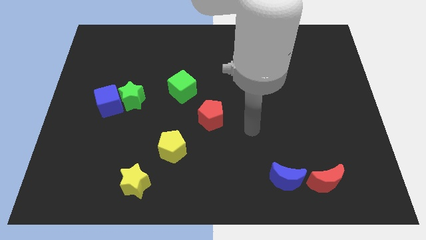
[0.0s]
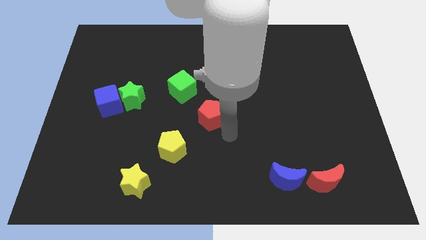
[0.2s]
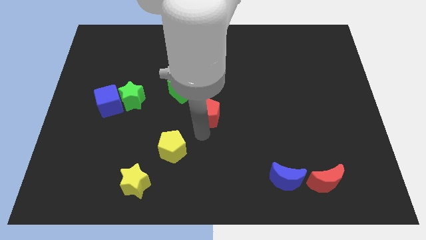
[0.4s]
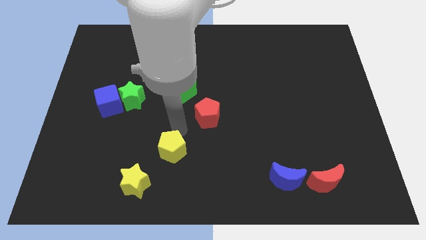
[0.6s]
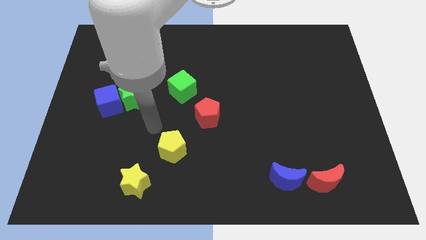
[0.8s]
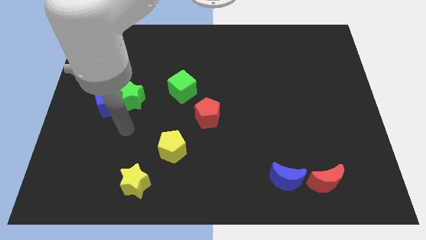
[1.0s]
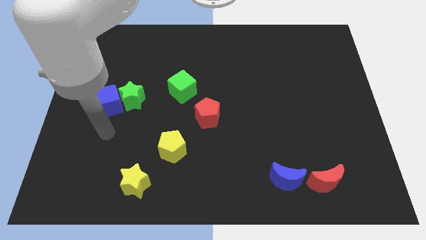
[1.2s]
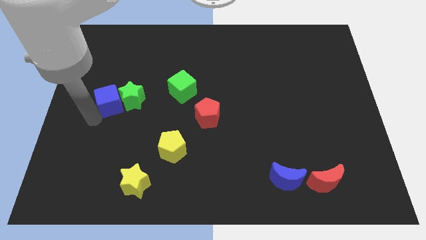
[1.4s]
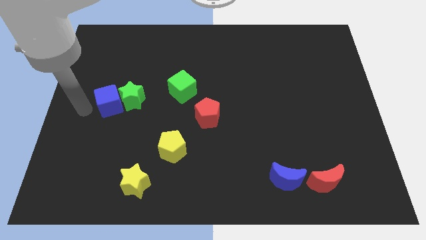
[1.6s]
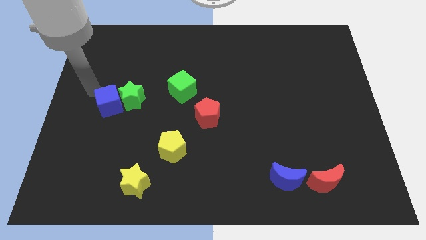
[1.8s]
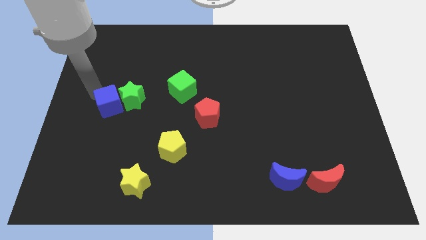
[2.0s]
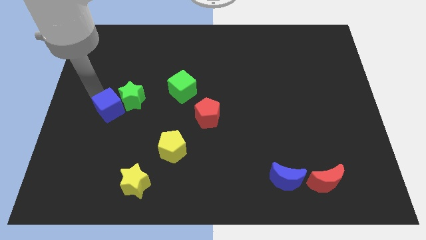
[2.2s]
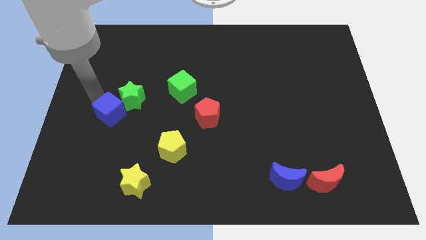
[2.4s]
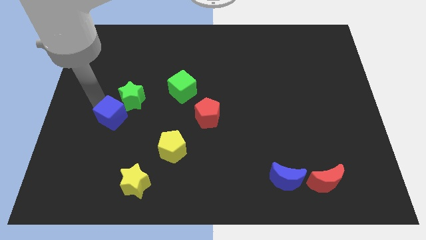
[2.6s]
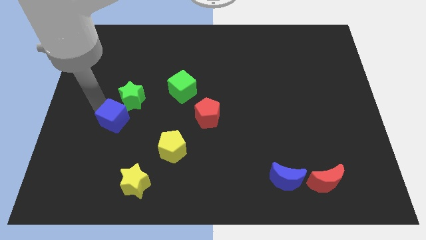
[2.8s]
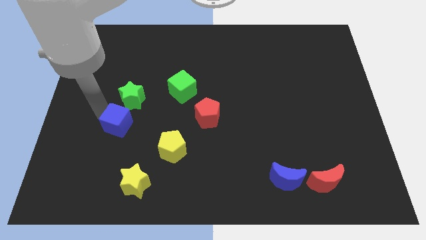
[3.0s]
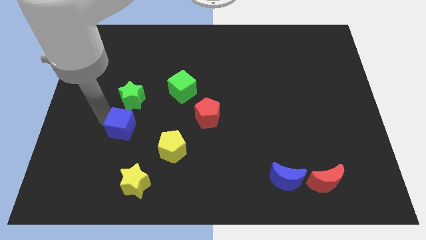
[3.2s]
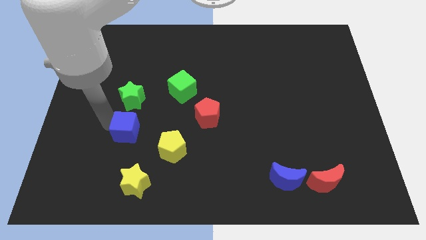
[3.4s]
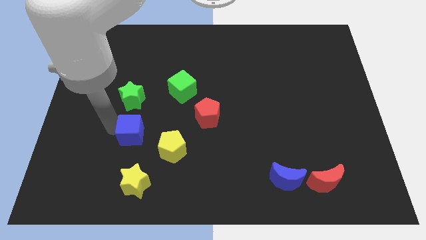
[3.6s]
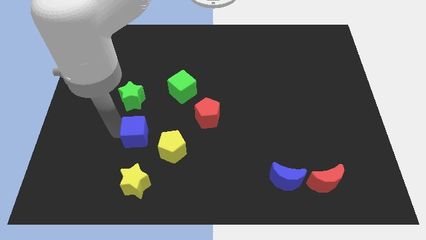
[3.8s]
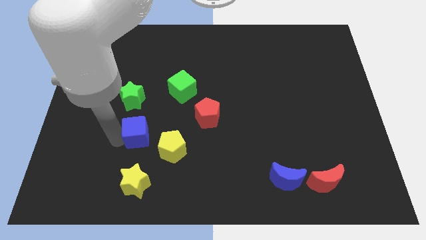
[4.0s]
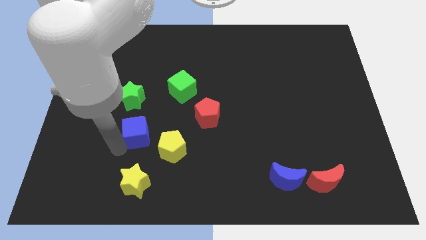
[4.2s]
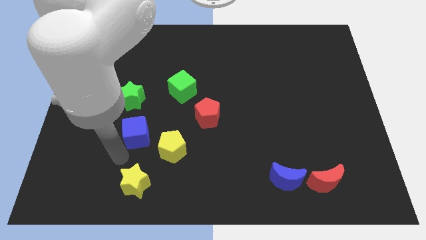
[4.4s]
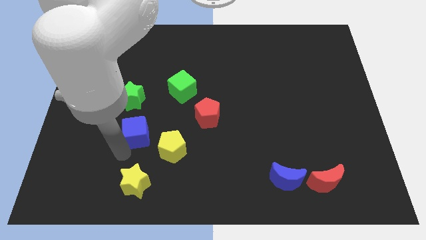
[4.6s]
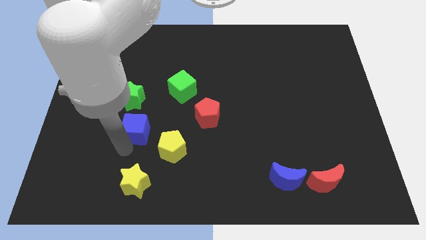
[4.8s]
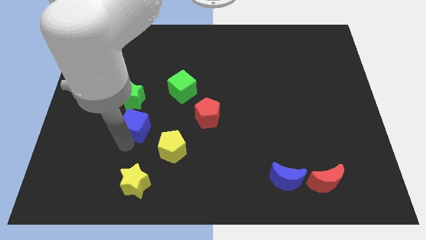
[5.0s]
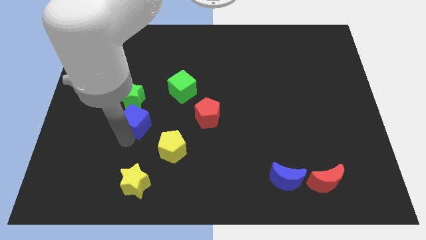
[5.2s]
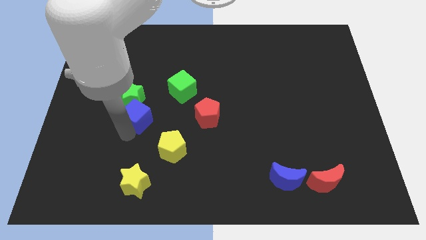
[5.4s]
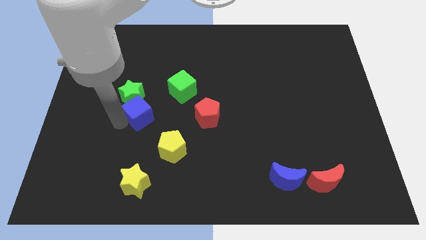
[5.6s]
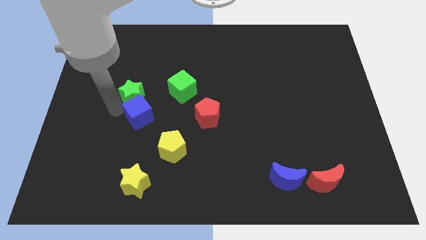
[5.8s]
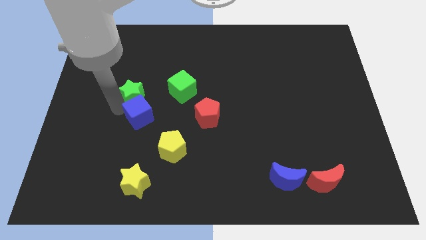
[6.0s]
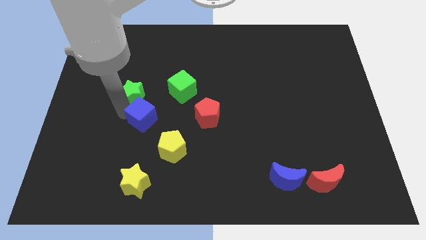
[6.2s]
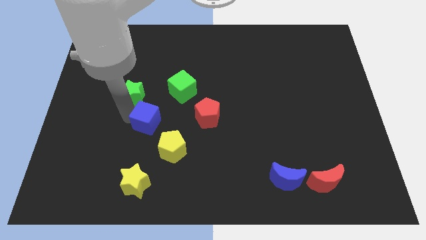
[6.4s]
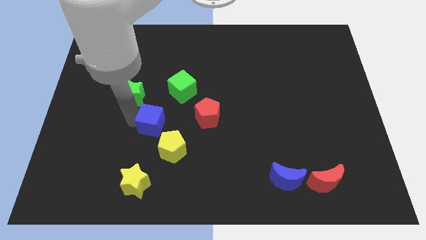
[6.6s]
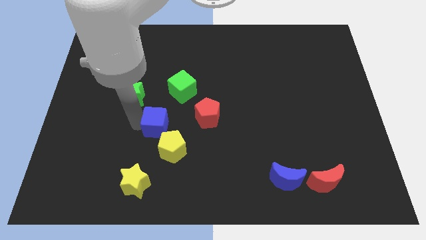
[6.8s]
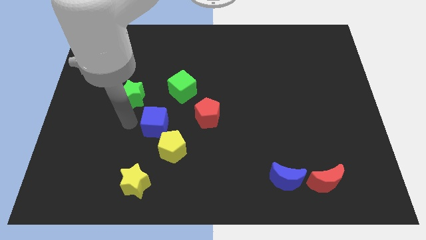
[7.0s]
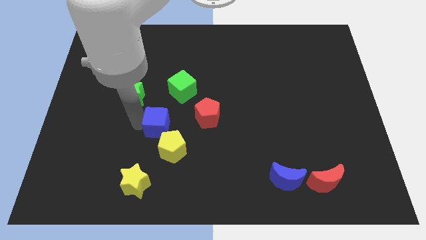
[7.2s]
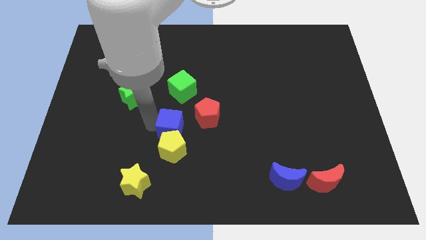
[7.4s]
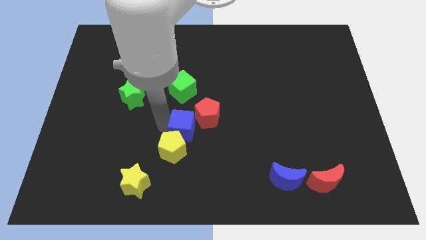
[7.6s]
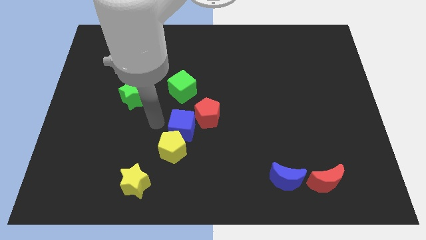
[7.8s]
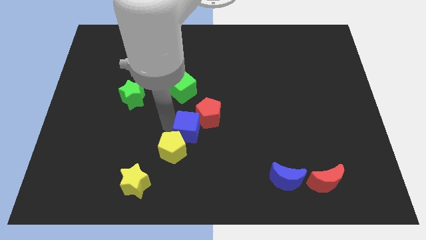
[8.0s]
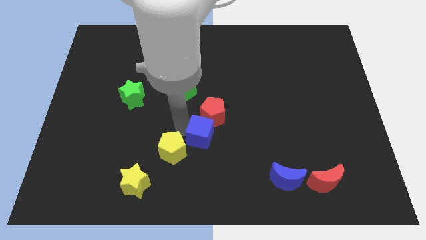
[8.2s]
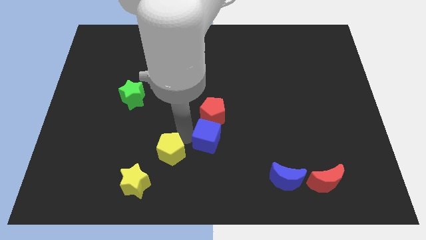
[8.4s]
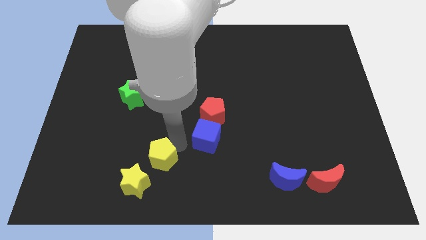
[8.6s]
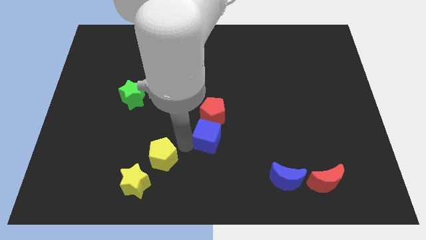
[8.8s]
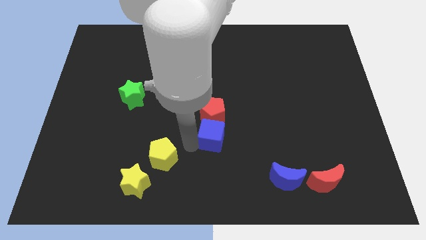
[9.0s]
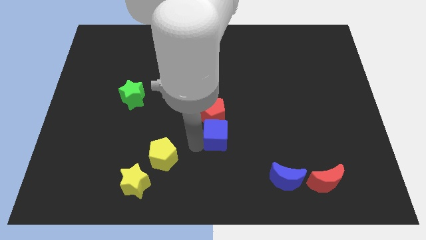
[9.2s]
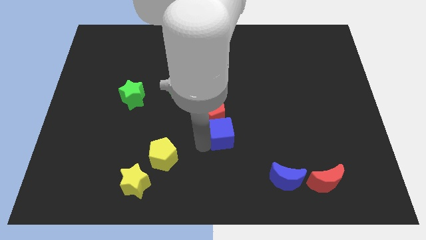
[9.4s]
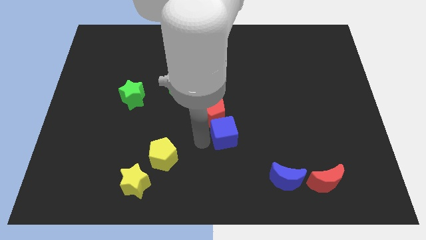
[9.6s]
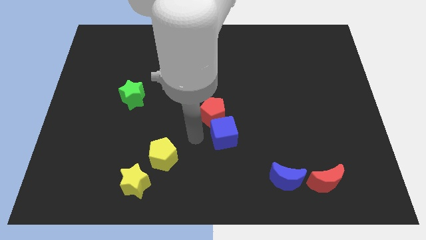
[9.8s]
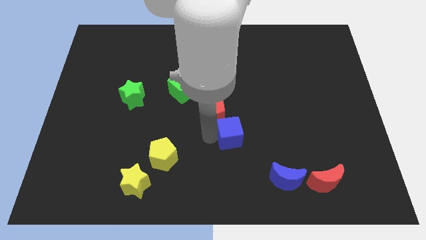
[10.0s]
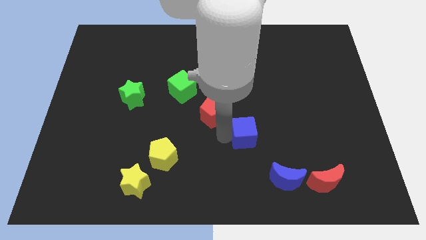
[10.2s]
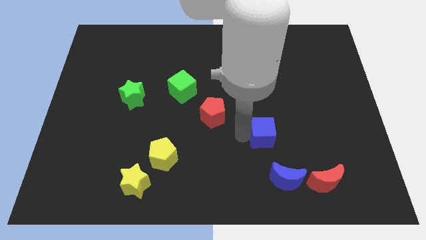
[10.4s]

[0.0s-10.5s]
push the blue cube to the top side of the blue moon

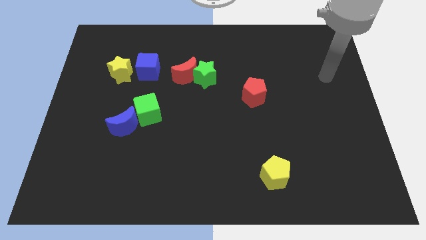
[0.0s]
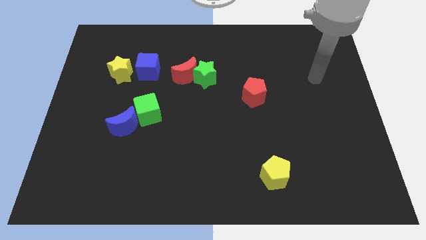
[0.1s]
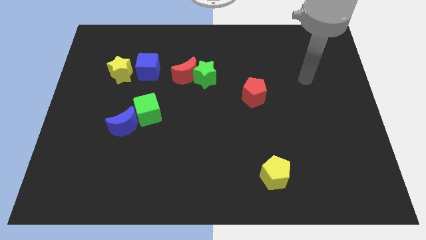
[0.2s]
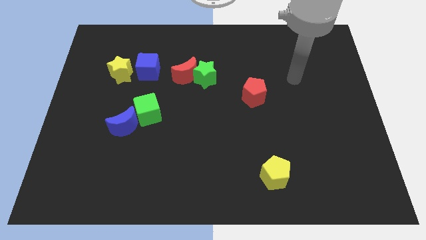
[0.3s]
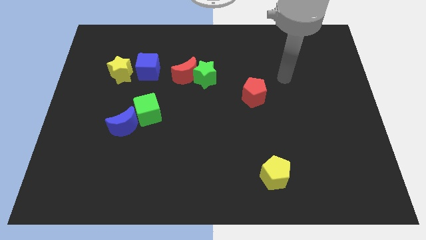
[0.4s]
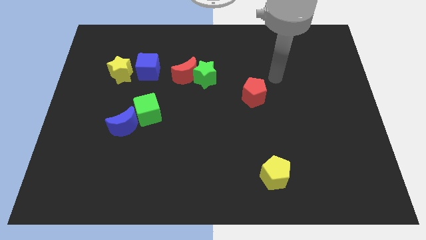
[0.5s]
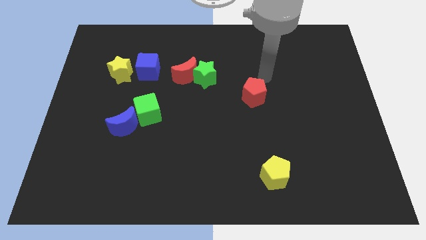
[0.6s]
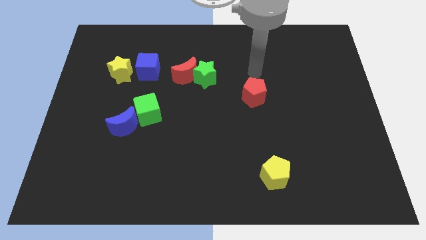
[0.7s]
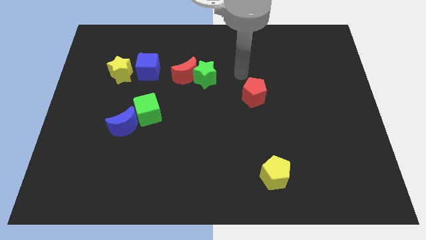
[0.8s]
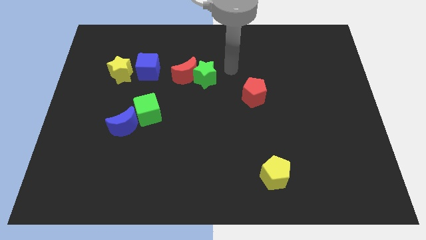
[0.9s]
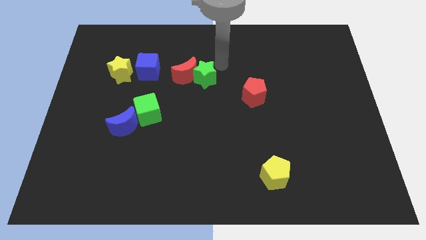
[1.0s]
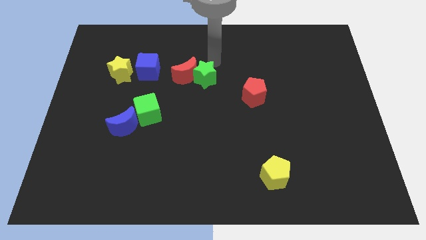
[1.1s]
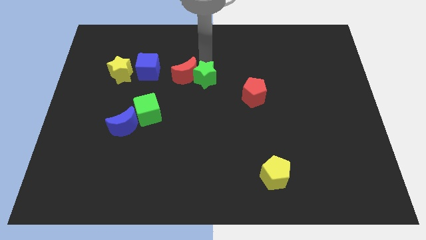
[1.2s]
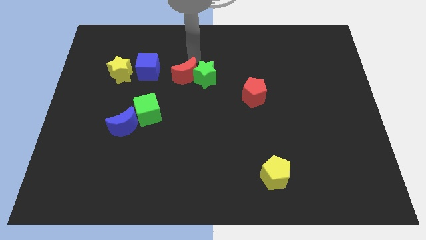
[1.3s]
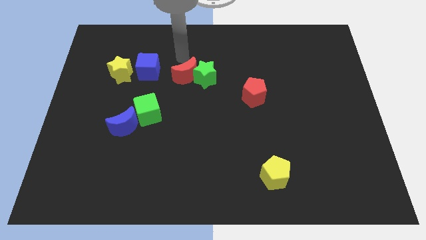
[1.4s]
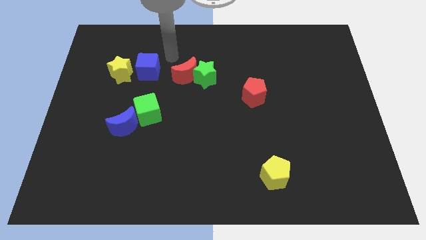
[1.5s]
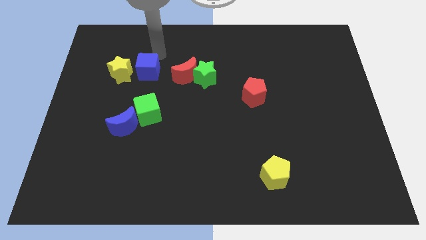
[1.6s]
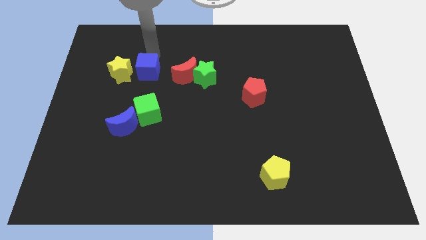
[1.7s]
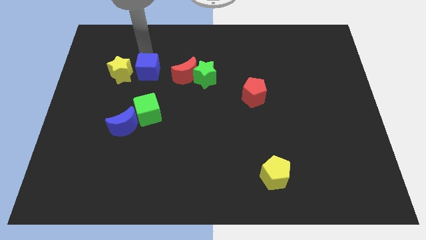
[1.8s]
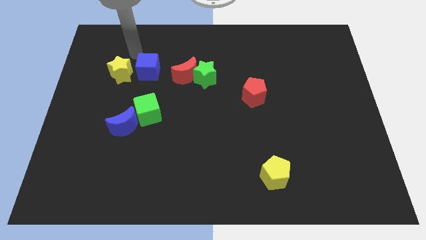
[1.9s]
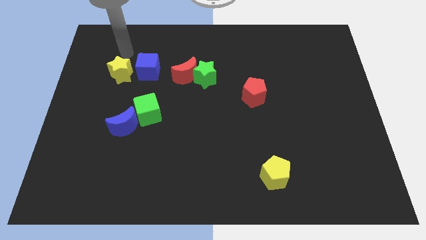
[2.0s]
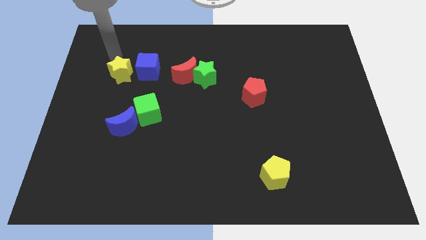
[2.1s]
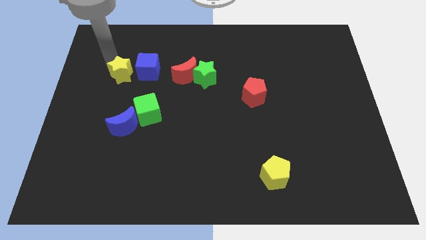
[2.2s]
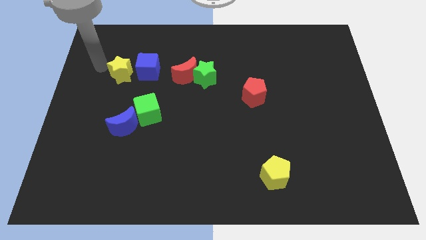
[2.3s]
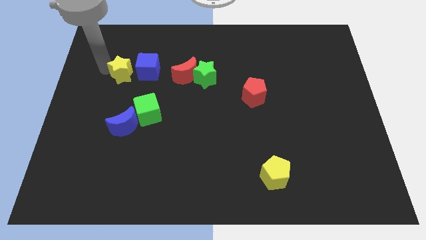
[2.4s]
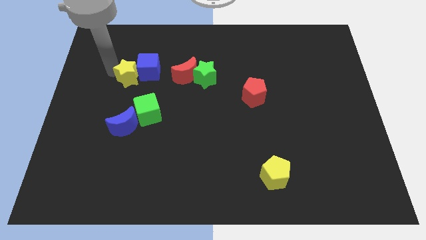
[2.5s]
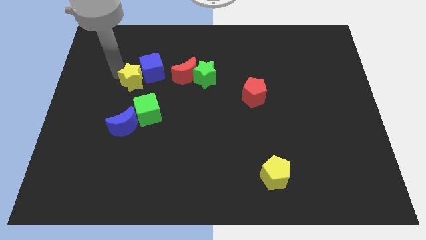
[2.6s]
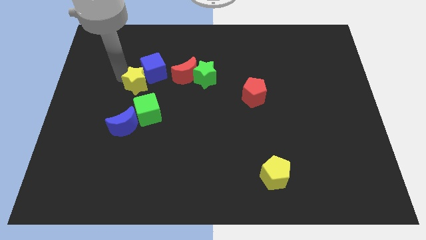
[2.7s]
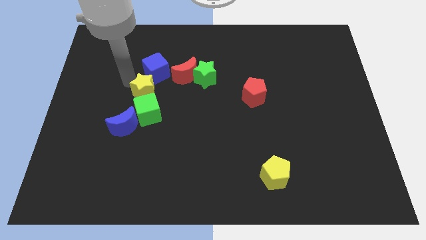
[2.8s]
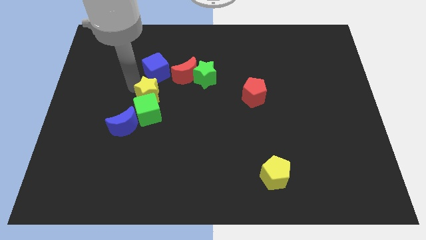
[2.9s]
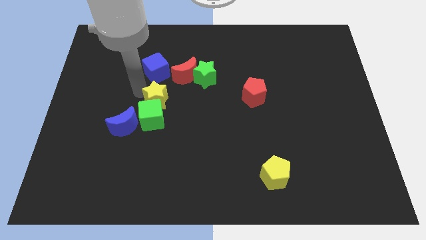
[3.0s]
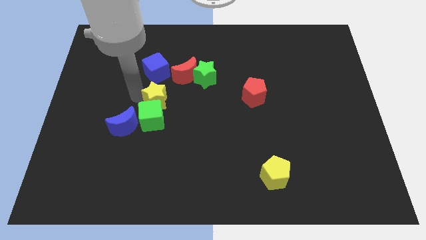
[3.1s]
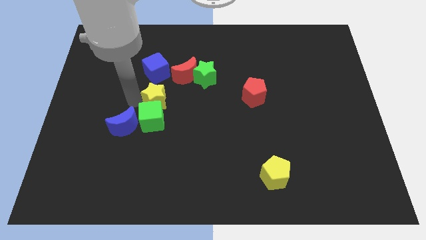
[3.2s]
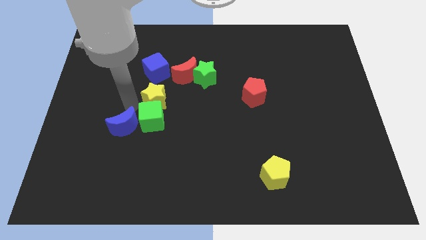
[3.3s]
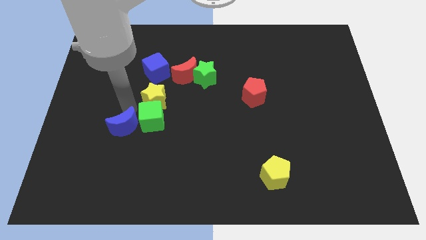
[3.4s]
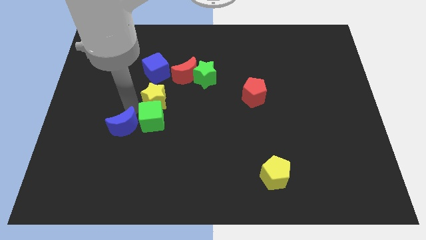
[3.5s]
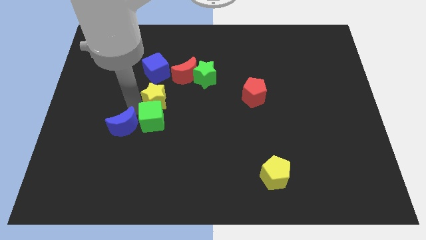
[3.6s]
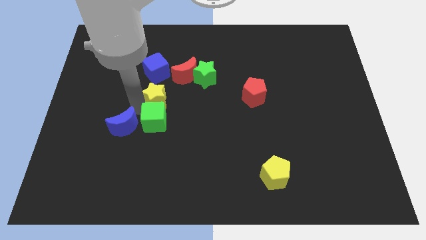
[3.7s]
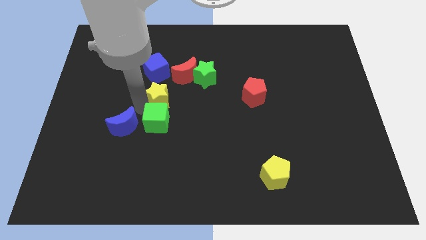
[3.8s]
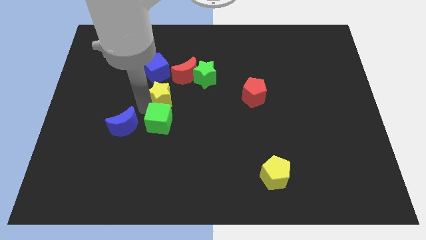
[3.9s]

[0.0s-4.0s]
slide the yellow star to the bottom left side of the green star
